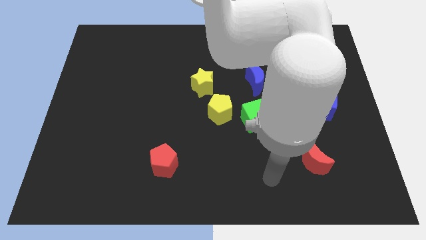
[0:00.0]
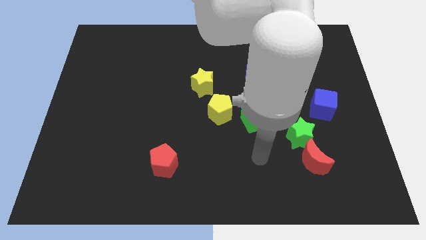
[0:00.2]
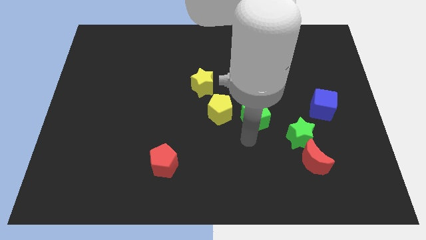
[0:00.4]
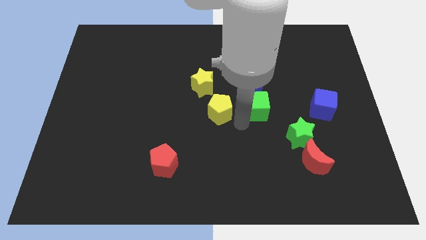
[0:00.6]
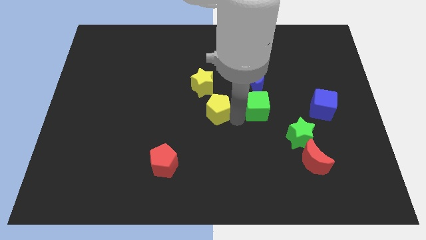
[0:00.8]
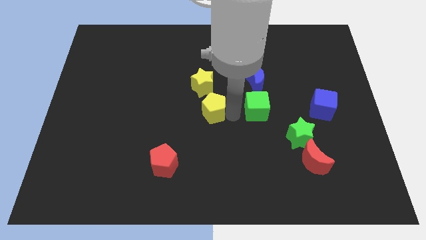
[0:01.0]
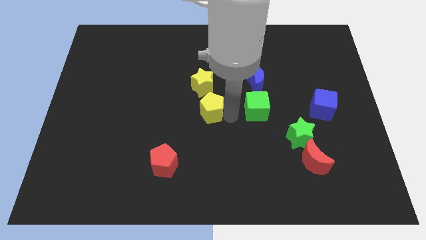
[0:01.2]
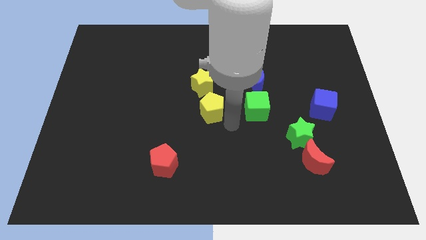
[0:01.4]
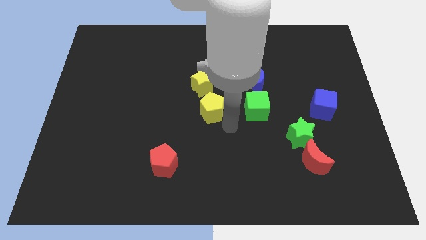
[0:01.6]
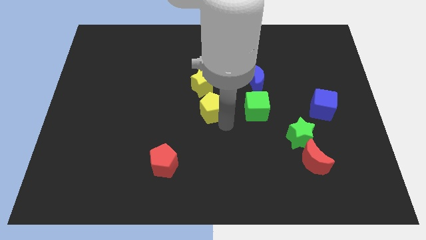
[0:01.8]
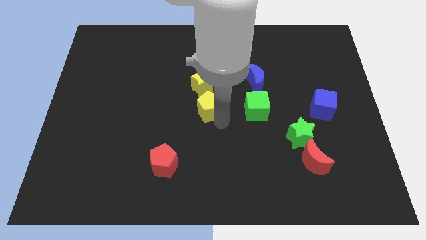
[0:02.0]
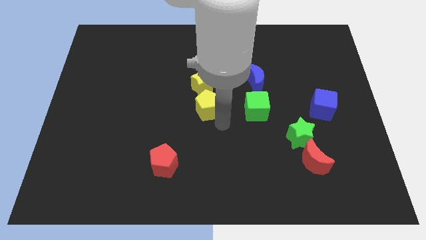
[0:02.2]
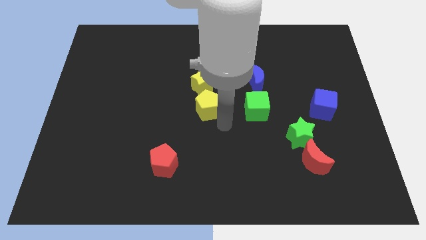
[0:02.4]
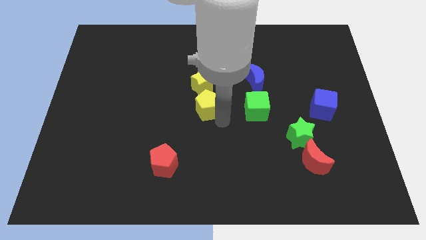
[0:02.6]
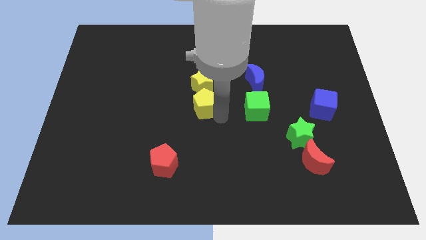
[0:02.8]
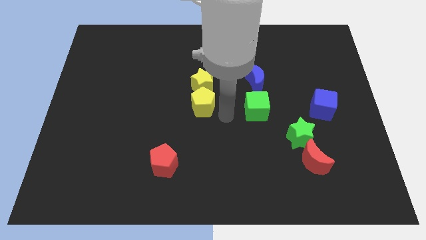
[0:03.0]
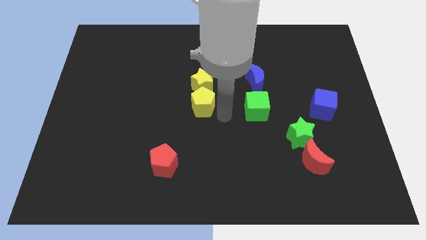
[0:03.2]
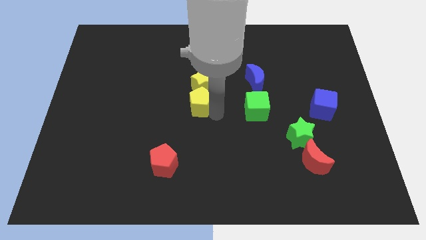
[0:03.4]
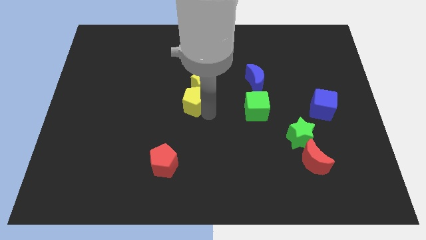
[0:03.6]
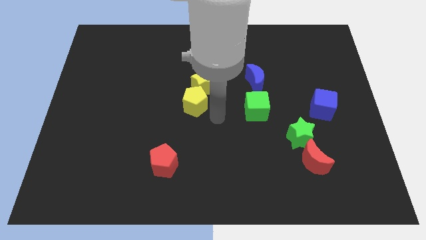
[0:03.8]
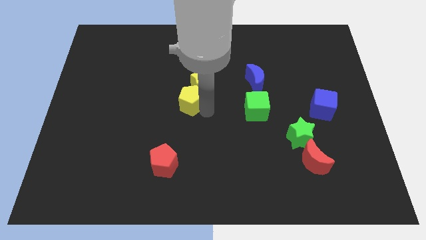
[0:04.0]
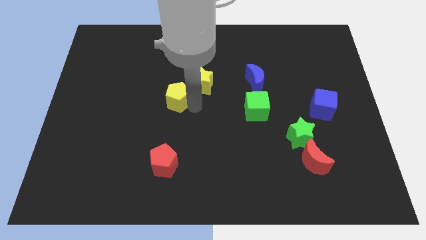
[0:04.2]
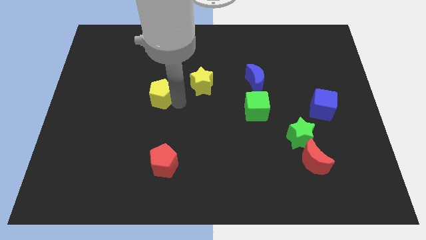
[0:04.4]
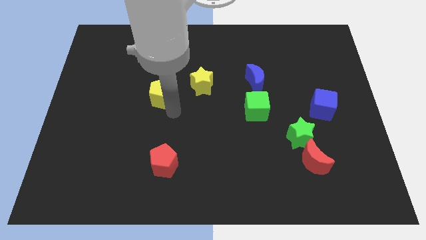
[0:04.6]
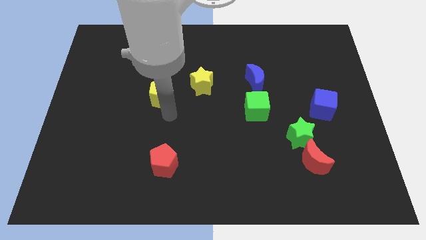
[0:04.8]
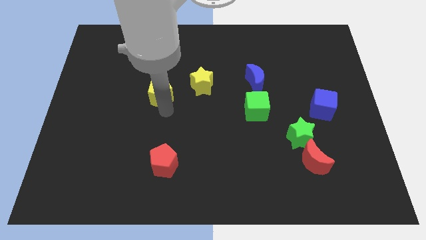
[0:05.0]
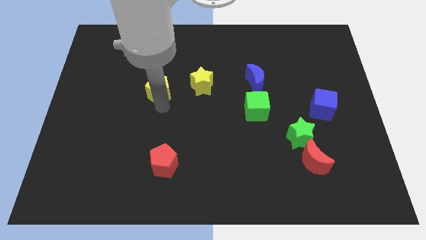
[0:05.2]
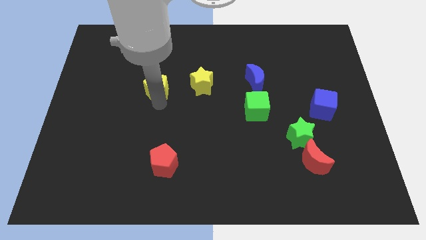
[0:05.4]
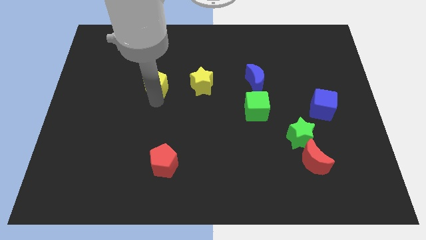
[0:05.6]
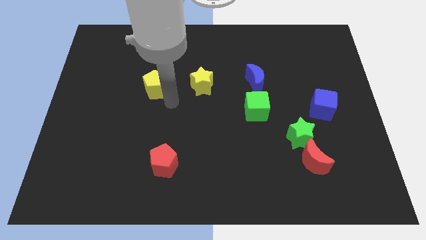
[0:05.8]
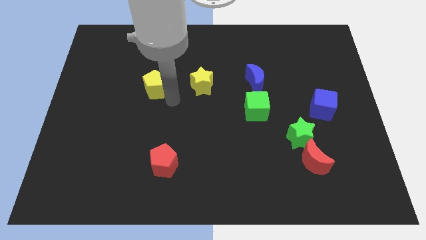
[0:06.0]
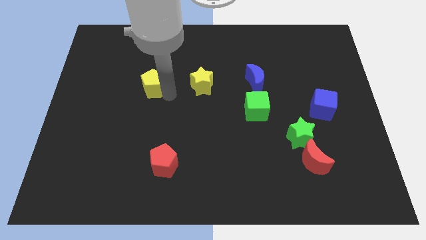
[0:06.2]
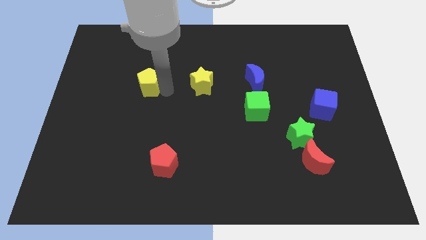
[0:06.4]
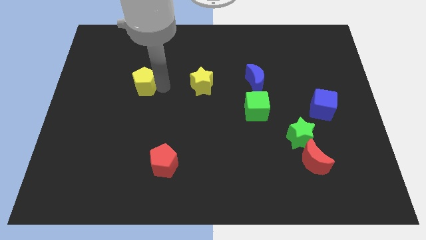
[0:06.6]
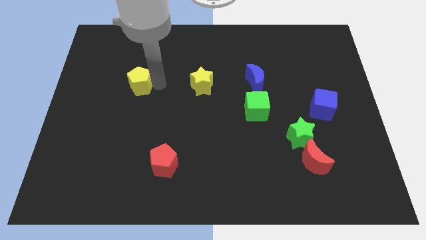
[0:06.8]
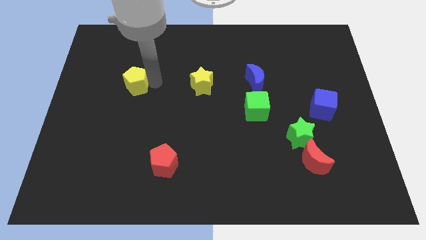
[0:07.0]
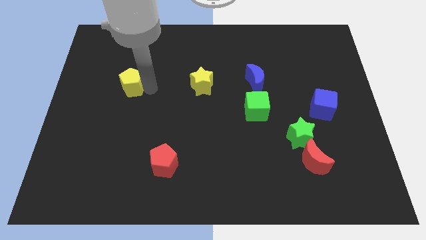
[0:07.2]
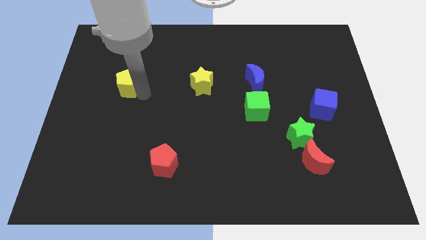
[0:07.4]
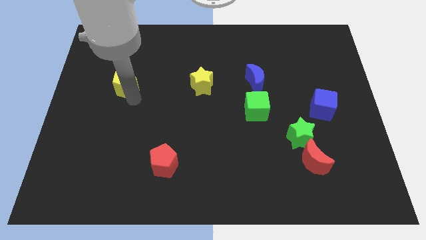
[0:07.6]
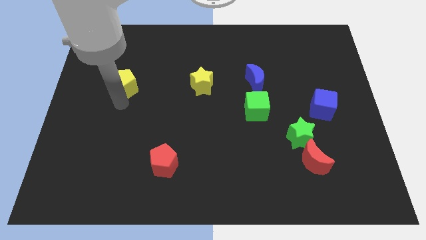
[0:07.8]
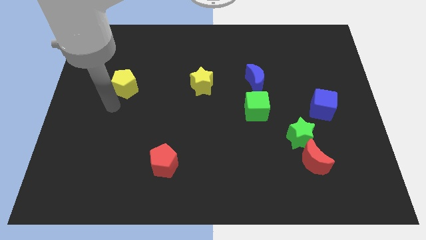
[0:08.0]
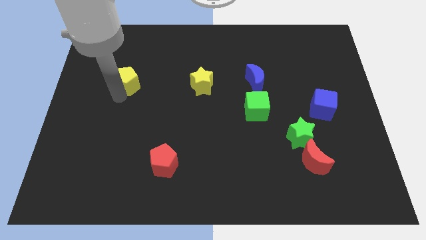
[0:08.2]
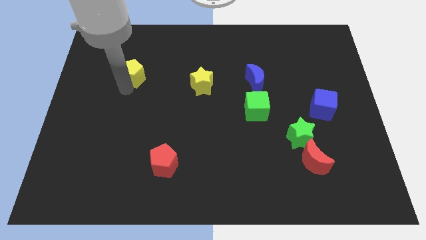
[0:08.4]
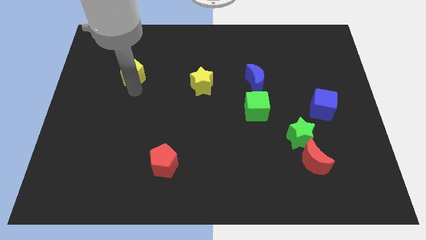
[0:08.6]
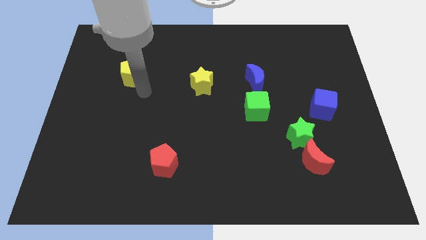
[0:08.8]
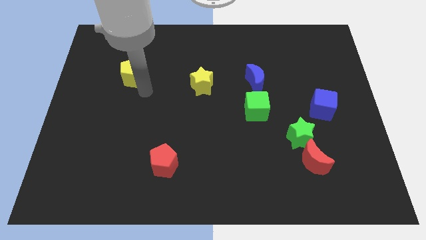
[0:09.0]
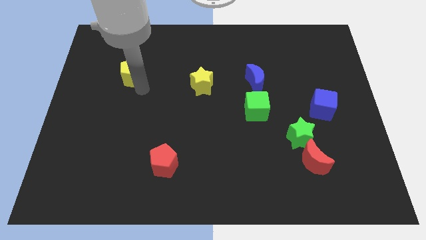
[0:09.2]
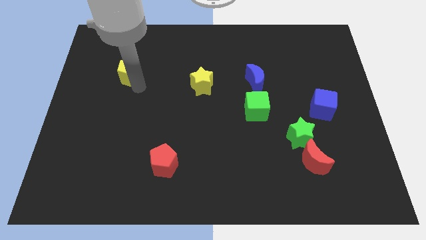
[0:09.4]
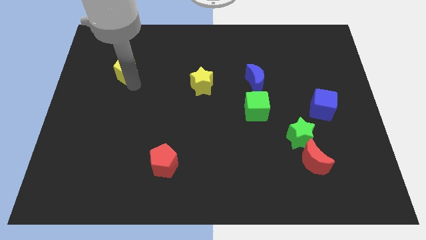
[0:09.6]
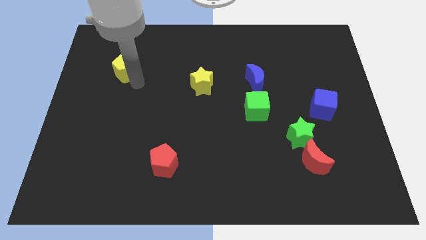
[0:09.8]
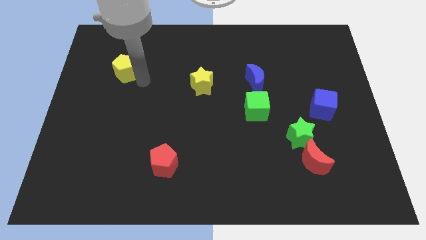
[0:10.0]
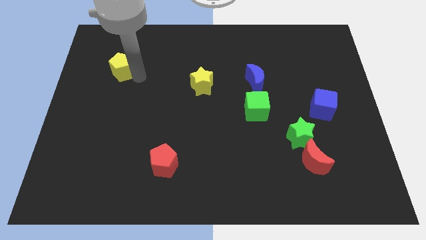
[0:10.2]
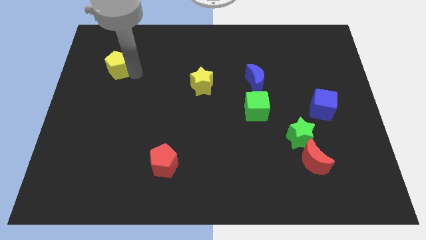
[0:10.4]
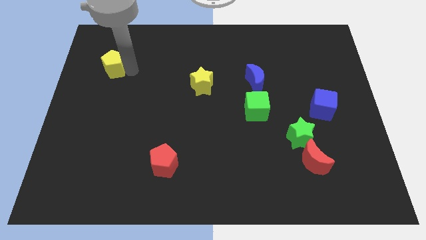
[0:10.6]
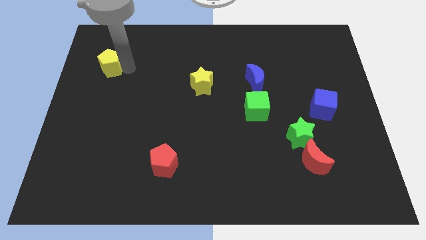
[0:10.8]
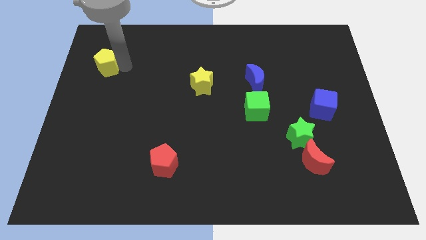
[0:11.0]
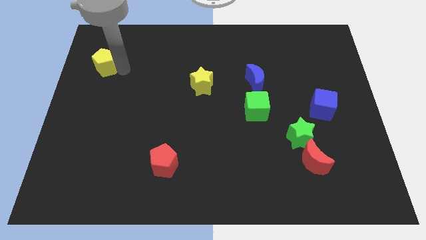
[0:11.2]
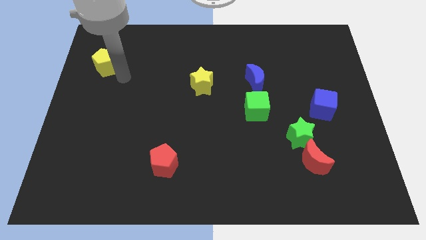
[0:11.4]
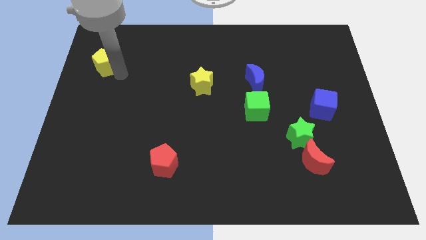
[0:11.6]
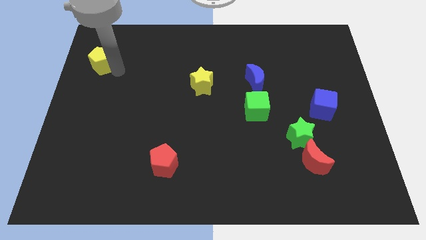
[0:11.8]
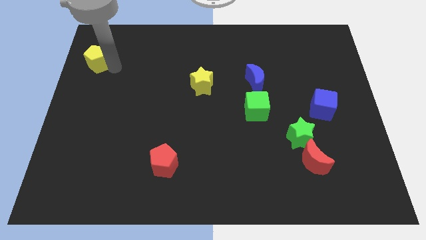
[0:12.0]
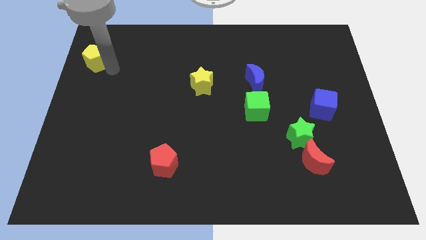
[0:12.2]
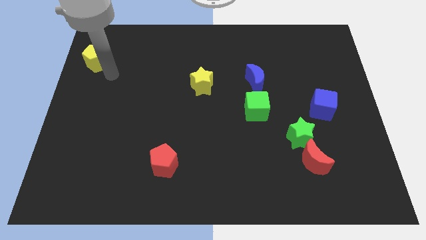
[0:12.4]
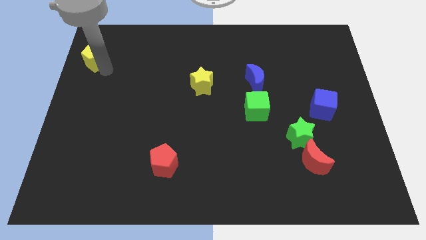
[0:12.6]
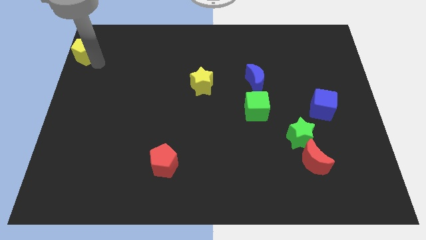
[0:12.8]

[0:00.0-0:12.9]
push the yellow pentagon to the top left

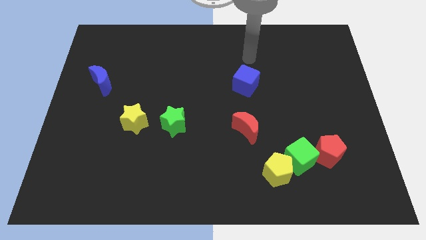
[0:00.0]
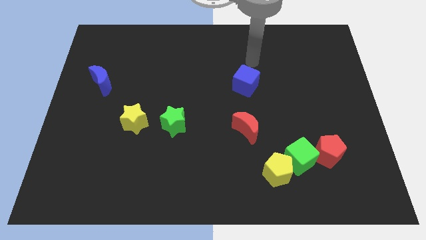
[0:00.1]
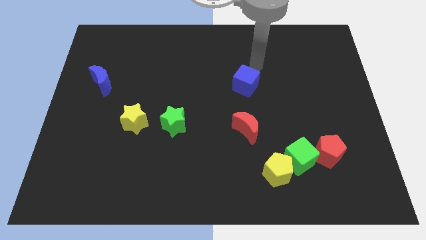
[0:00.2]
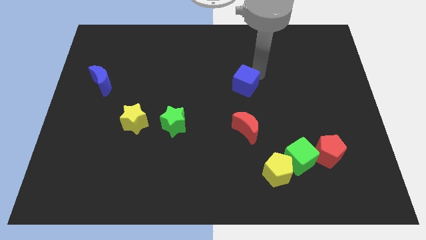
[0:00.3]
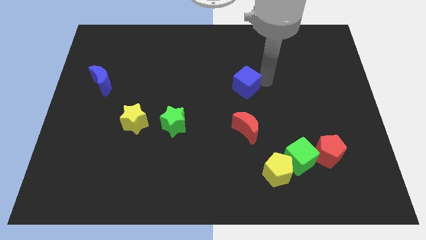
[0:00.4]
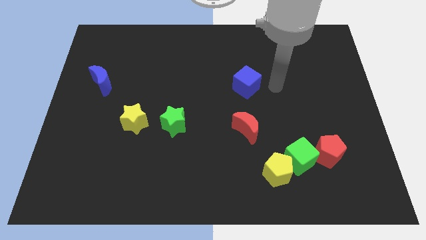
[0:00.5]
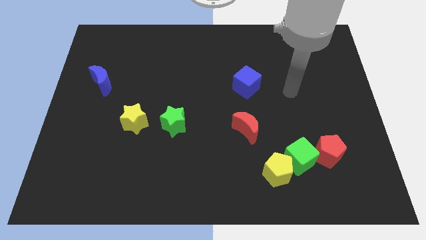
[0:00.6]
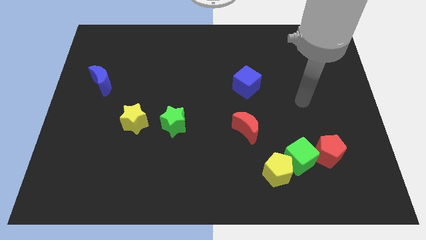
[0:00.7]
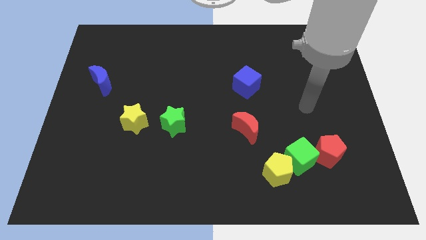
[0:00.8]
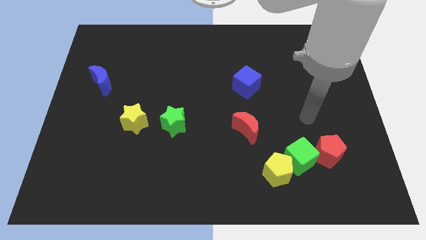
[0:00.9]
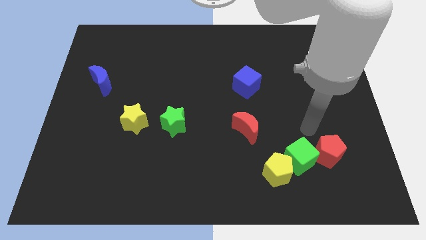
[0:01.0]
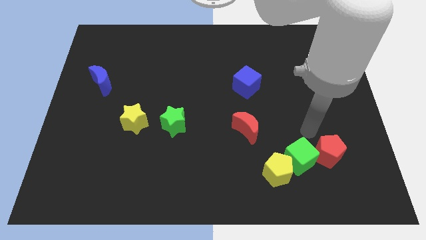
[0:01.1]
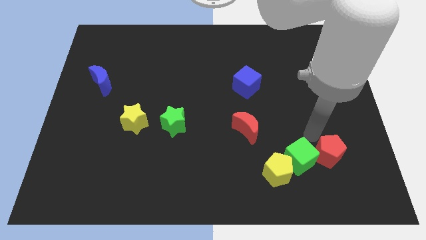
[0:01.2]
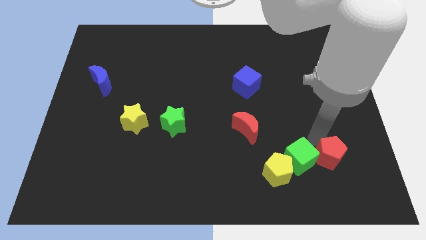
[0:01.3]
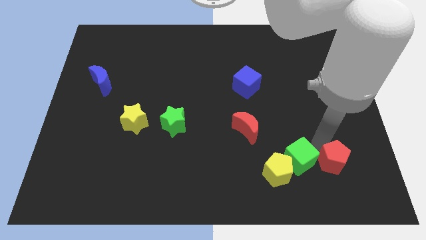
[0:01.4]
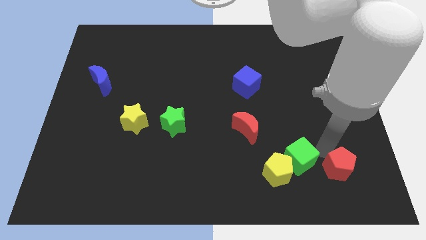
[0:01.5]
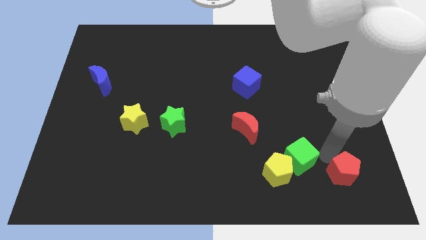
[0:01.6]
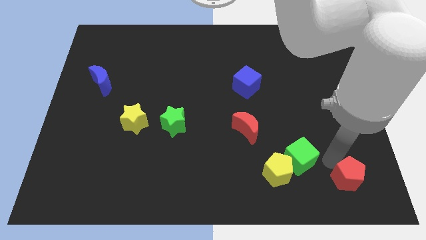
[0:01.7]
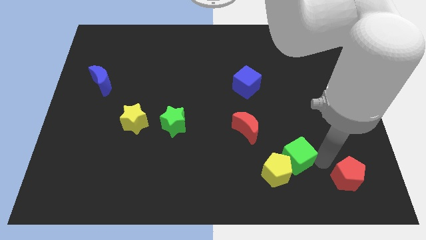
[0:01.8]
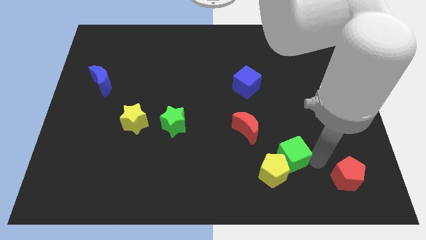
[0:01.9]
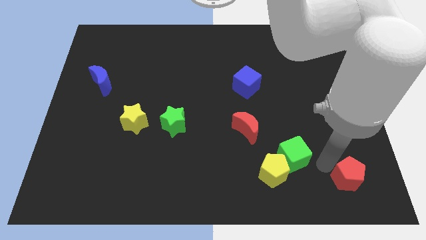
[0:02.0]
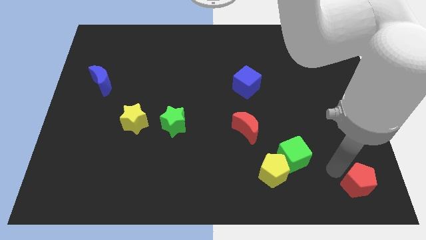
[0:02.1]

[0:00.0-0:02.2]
slide the red pentagon to the bottom right
